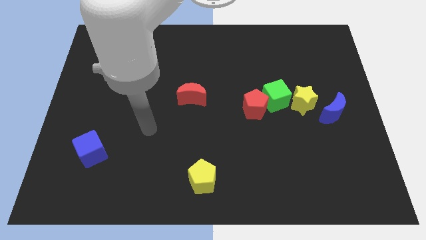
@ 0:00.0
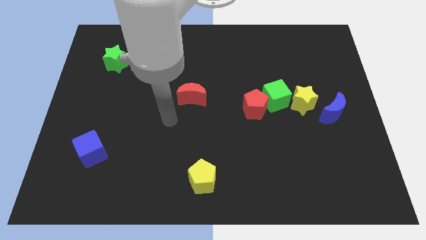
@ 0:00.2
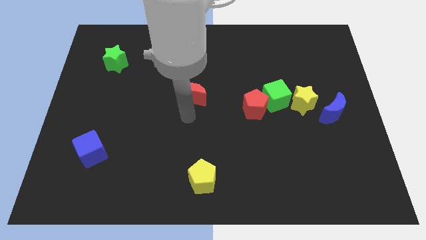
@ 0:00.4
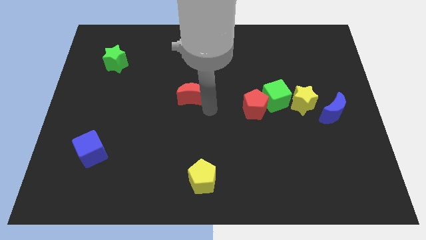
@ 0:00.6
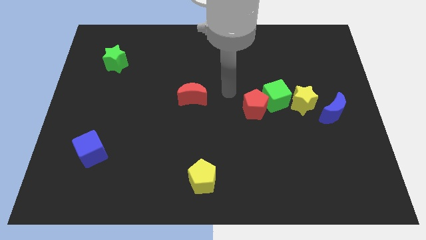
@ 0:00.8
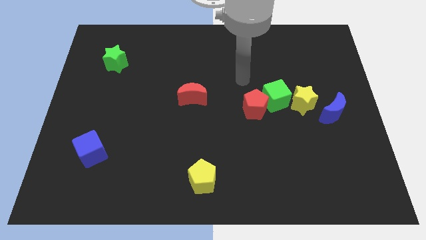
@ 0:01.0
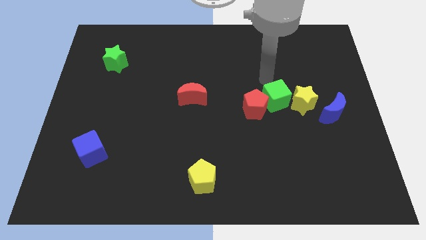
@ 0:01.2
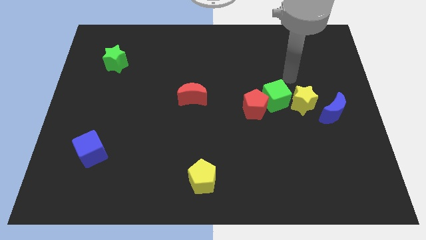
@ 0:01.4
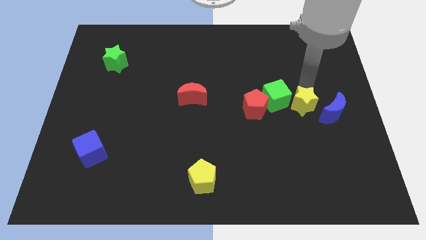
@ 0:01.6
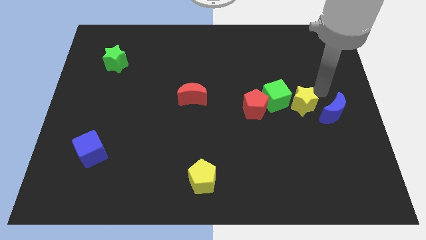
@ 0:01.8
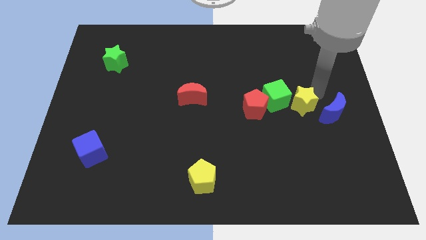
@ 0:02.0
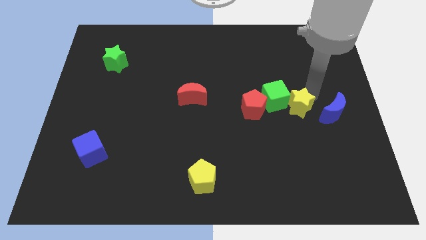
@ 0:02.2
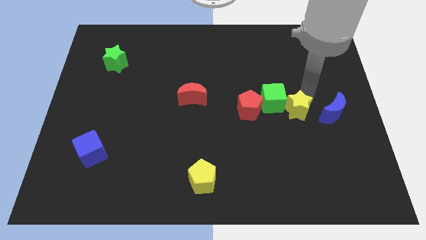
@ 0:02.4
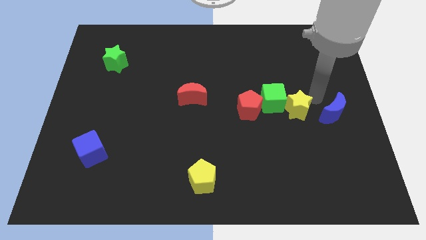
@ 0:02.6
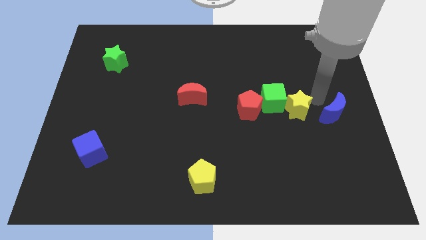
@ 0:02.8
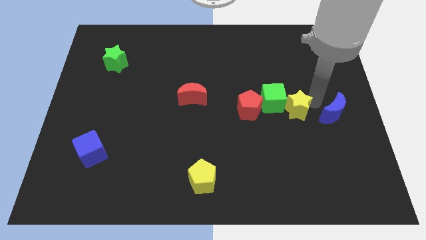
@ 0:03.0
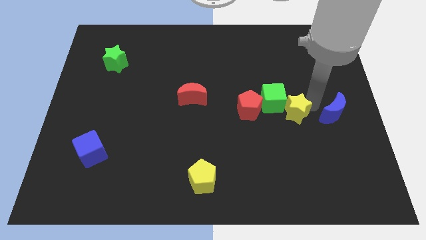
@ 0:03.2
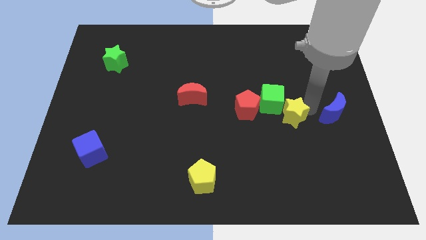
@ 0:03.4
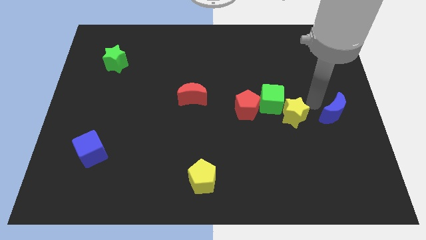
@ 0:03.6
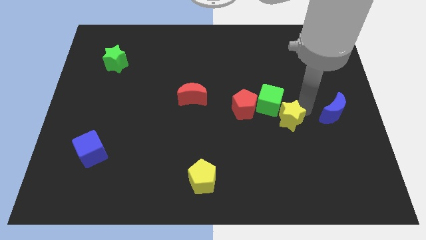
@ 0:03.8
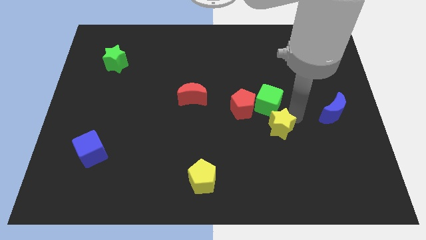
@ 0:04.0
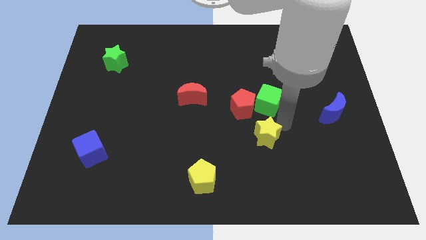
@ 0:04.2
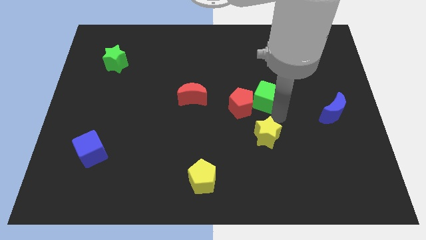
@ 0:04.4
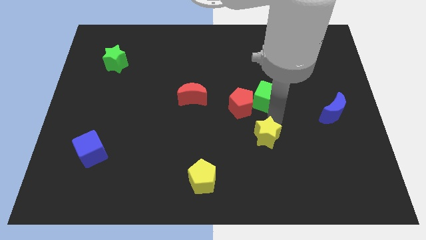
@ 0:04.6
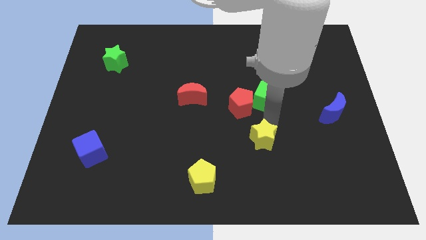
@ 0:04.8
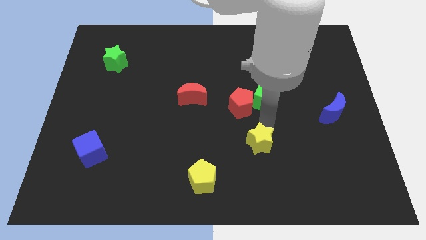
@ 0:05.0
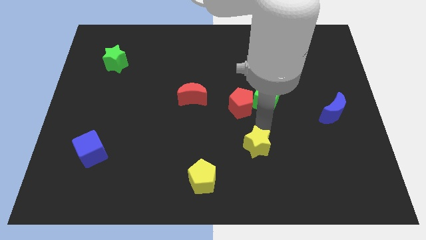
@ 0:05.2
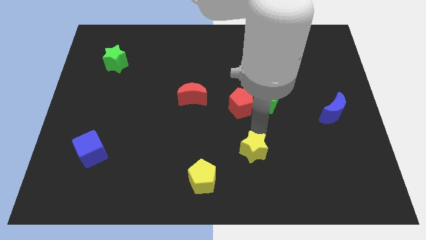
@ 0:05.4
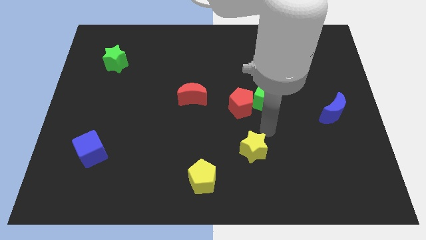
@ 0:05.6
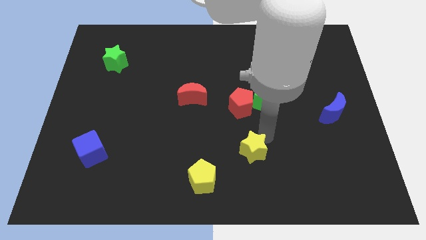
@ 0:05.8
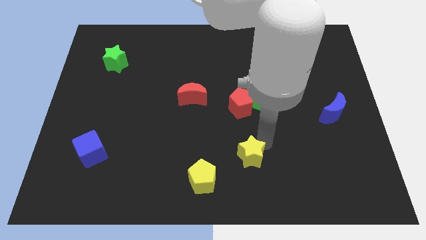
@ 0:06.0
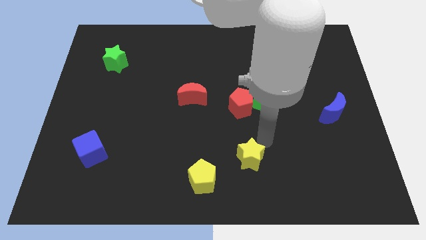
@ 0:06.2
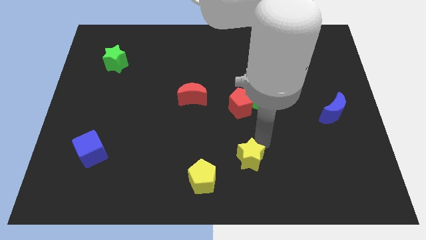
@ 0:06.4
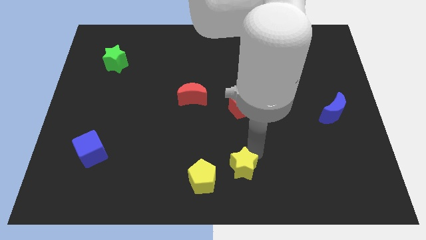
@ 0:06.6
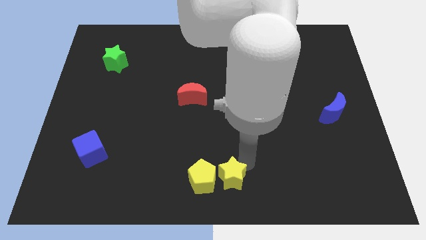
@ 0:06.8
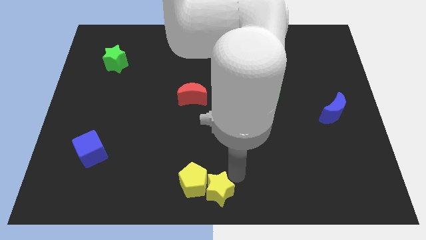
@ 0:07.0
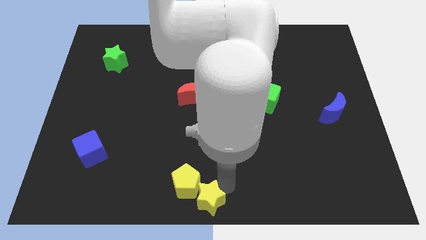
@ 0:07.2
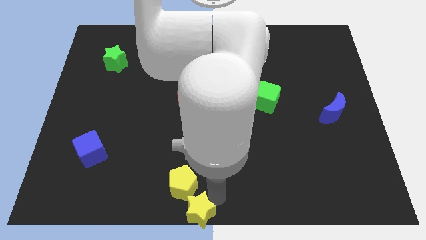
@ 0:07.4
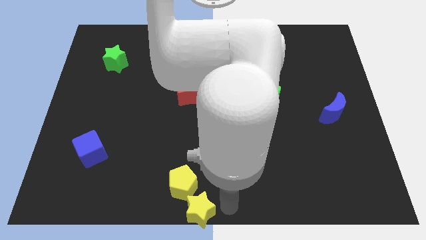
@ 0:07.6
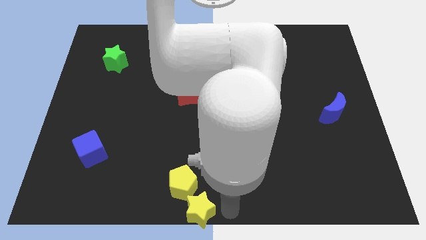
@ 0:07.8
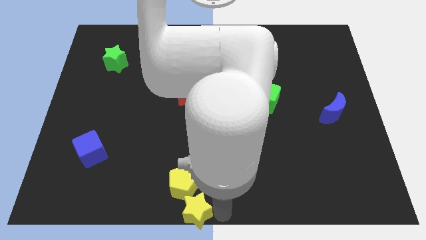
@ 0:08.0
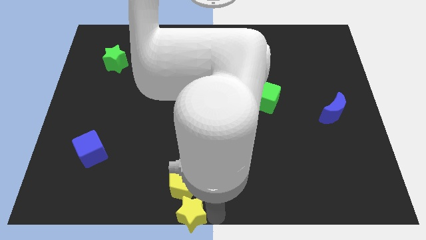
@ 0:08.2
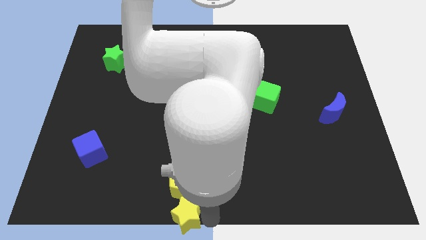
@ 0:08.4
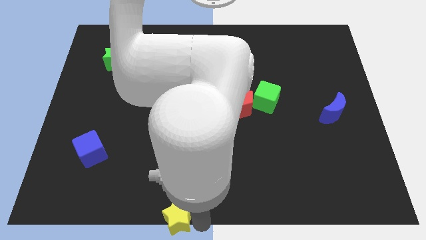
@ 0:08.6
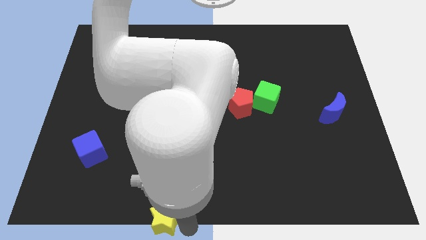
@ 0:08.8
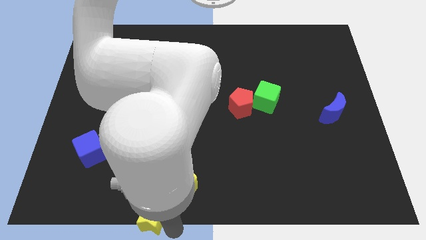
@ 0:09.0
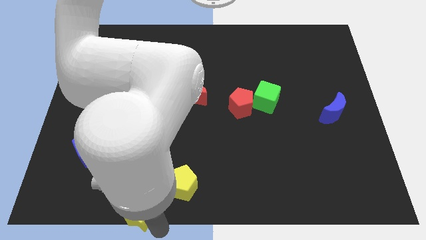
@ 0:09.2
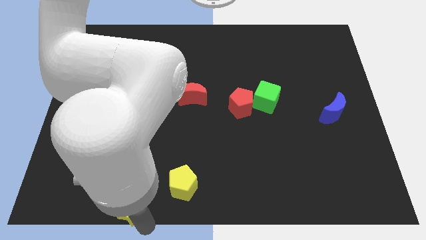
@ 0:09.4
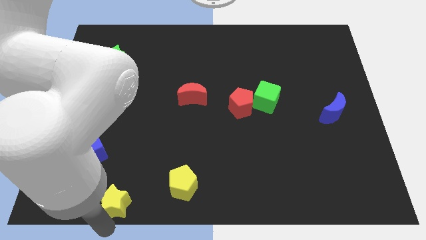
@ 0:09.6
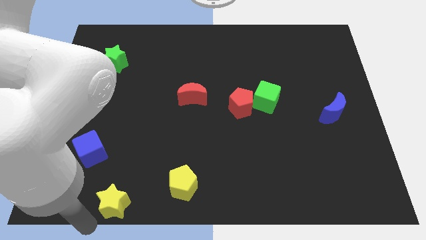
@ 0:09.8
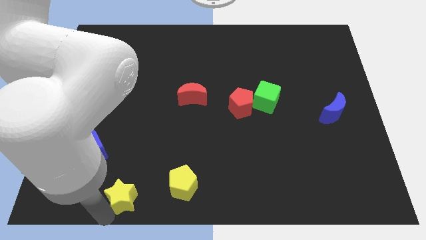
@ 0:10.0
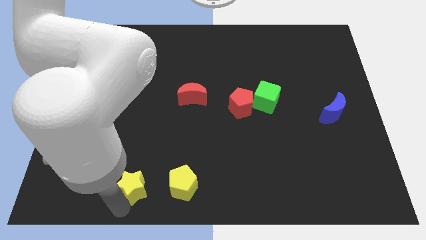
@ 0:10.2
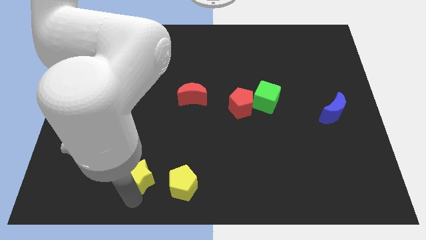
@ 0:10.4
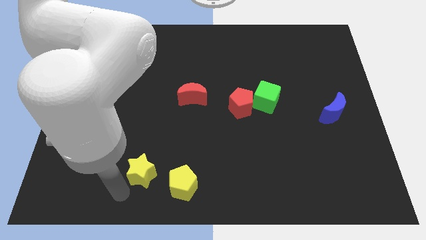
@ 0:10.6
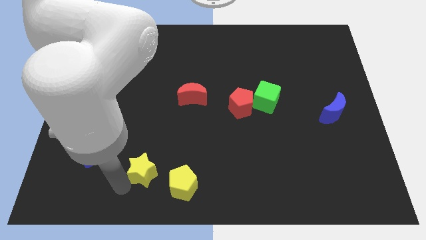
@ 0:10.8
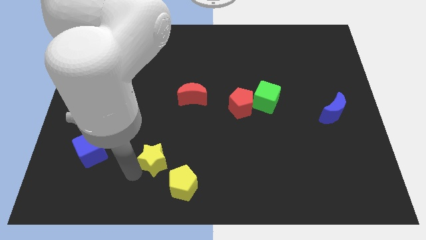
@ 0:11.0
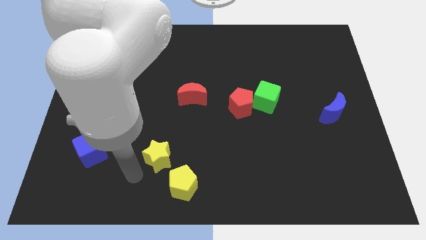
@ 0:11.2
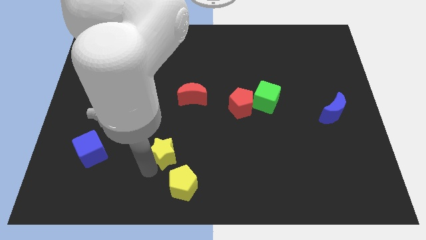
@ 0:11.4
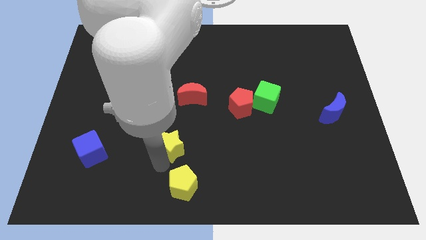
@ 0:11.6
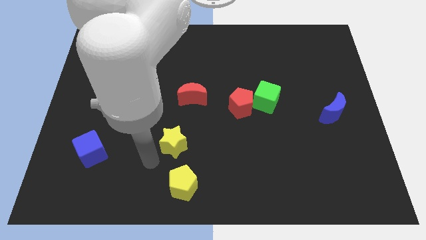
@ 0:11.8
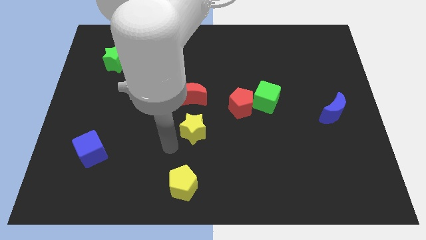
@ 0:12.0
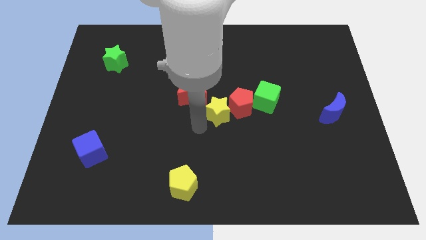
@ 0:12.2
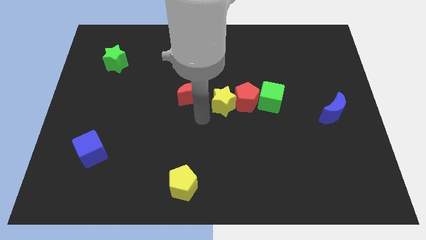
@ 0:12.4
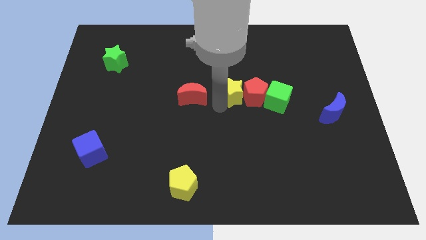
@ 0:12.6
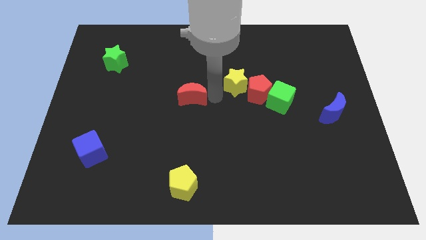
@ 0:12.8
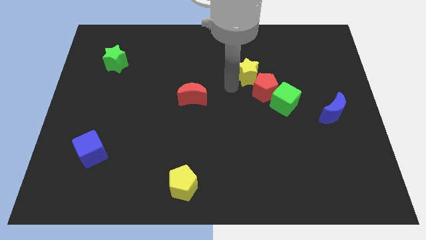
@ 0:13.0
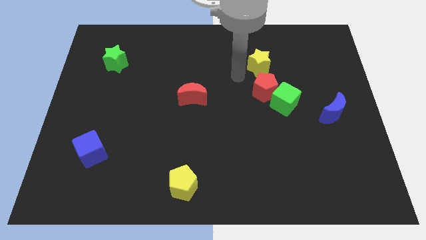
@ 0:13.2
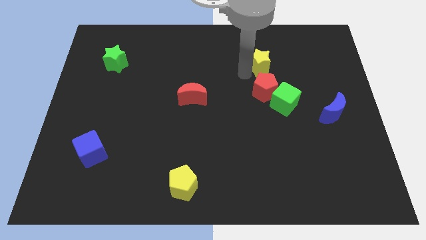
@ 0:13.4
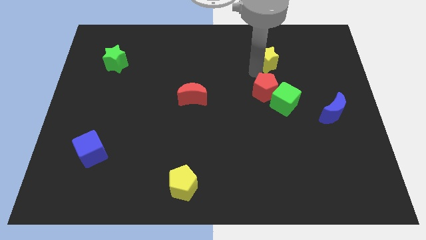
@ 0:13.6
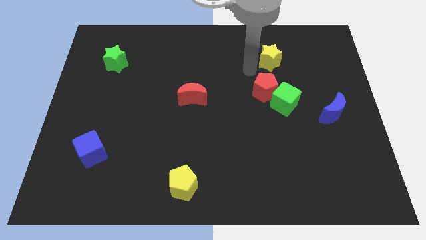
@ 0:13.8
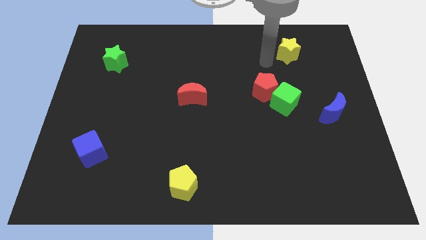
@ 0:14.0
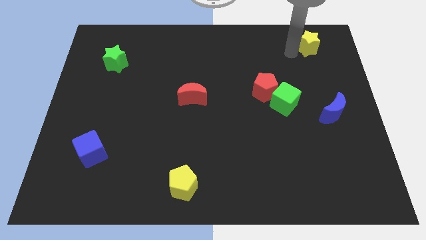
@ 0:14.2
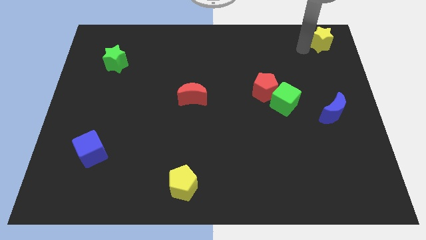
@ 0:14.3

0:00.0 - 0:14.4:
put the yellow star to the top right of the board
